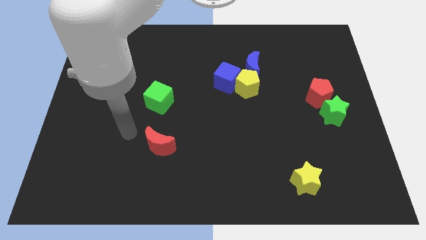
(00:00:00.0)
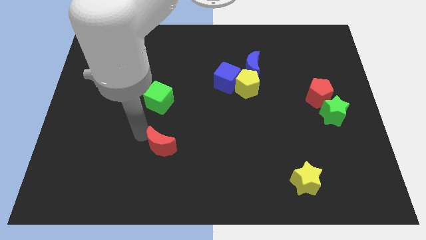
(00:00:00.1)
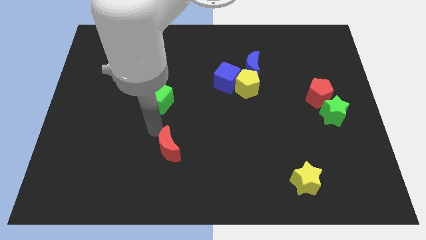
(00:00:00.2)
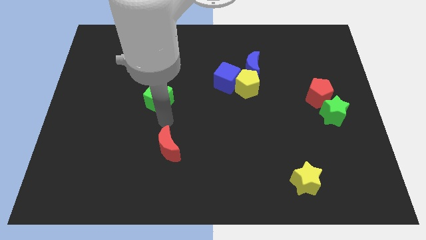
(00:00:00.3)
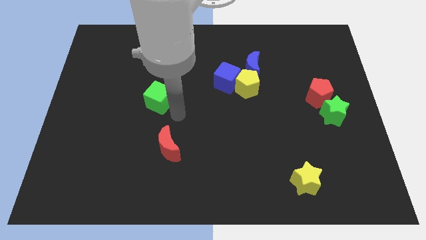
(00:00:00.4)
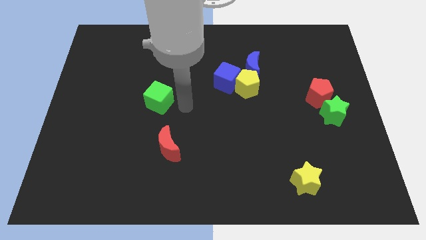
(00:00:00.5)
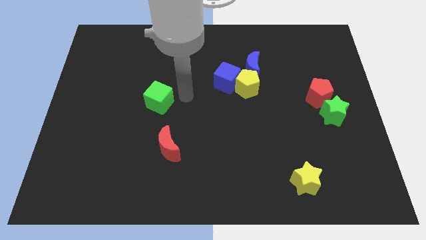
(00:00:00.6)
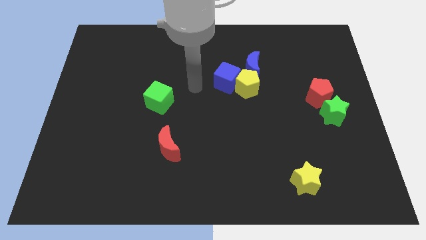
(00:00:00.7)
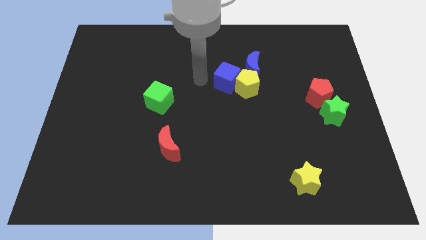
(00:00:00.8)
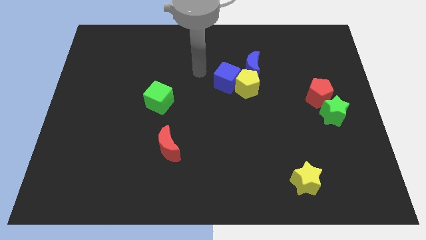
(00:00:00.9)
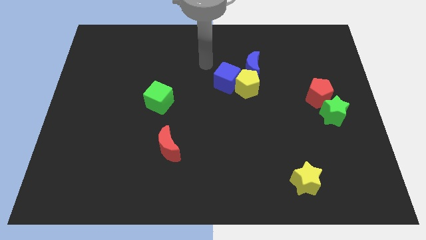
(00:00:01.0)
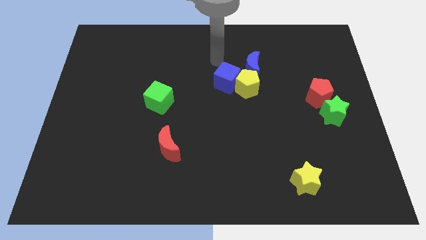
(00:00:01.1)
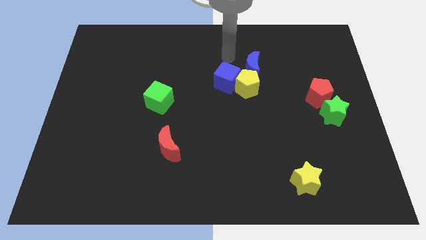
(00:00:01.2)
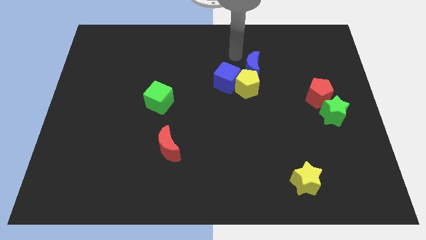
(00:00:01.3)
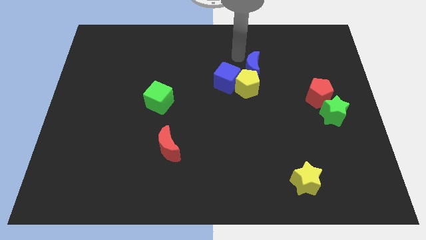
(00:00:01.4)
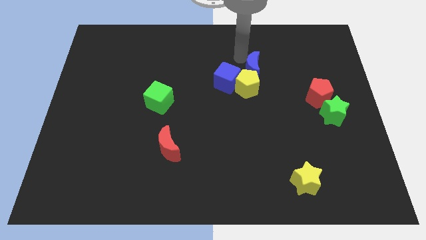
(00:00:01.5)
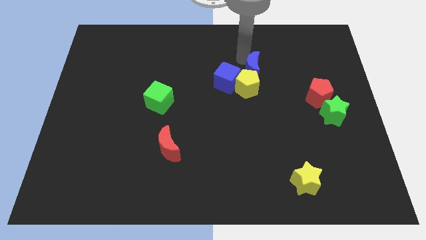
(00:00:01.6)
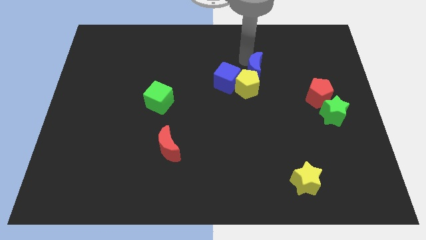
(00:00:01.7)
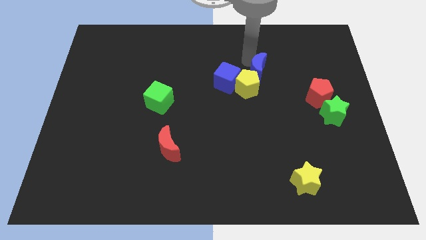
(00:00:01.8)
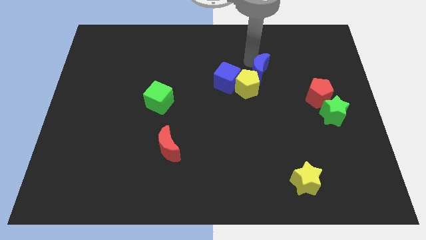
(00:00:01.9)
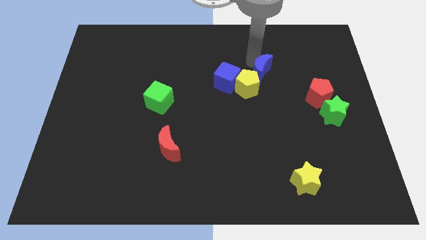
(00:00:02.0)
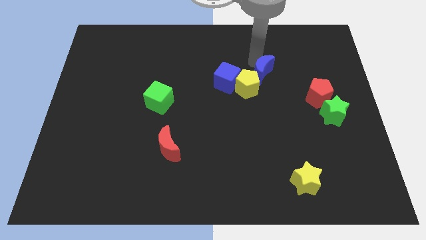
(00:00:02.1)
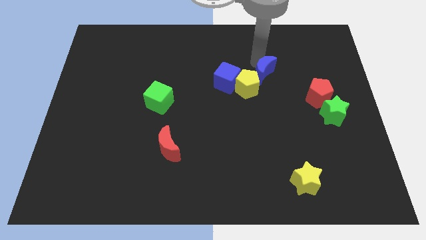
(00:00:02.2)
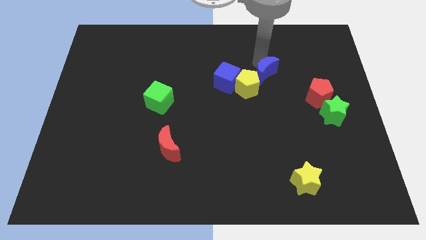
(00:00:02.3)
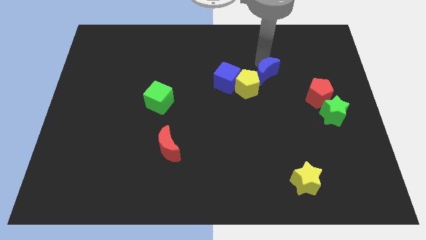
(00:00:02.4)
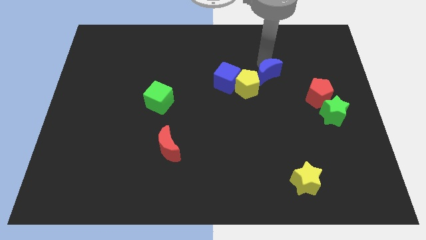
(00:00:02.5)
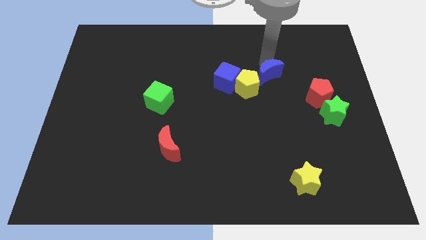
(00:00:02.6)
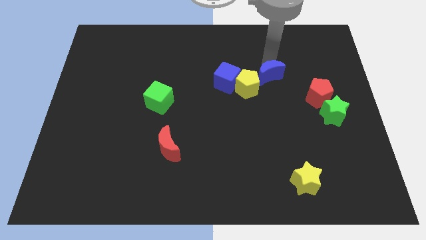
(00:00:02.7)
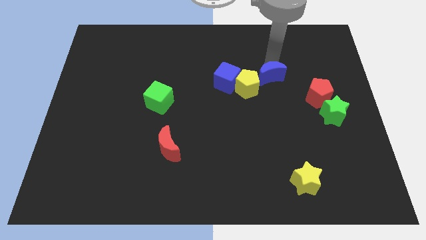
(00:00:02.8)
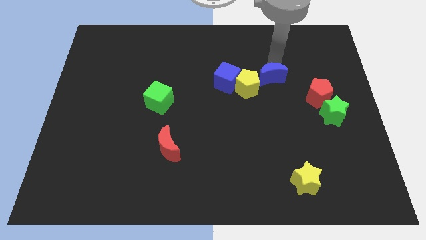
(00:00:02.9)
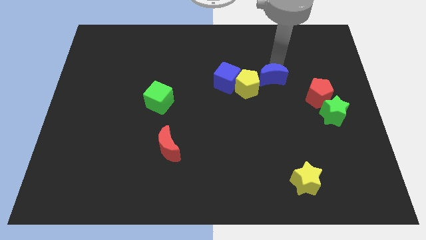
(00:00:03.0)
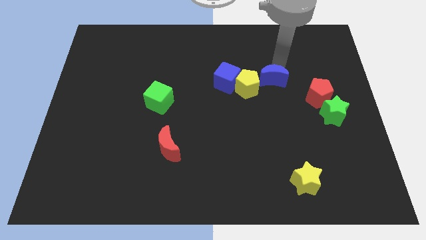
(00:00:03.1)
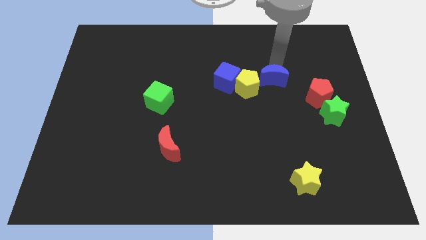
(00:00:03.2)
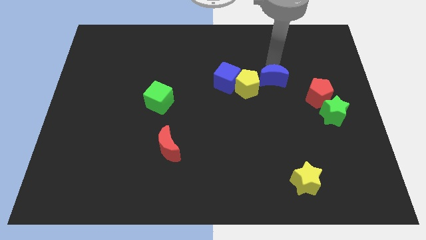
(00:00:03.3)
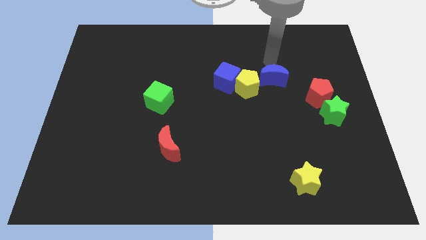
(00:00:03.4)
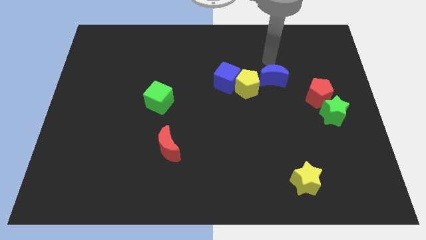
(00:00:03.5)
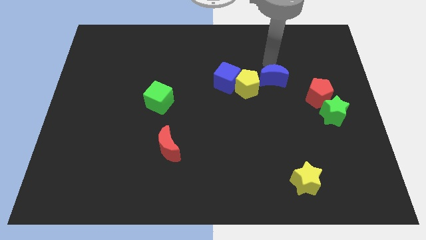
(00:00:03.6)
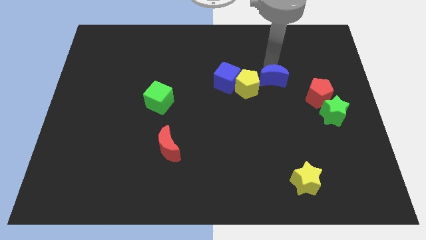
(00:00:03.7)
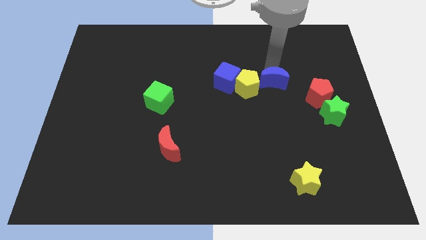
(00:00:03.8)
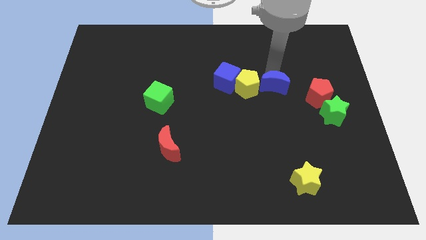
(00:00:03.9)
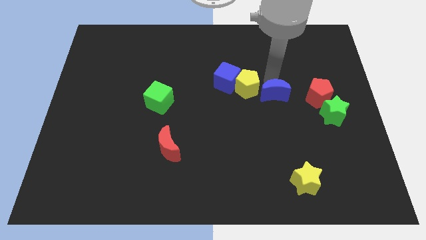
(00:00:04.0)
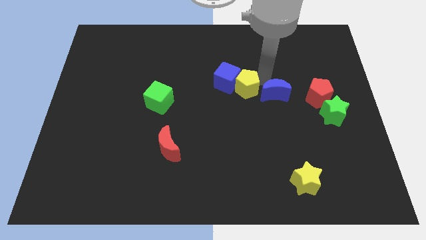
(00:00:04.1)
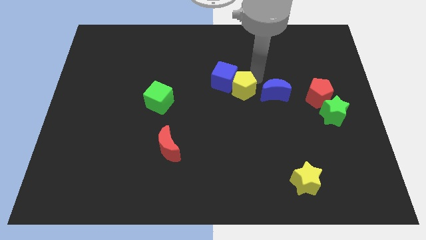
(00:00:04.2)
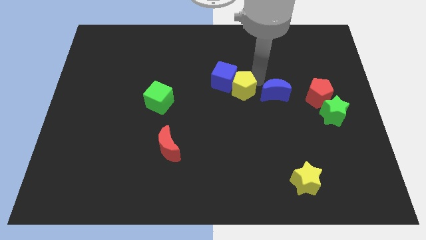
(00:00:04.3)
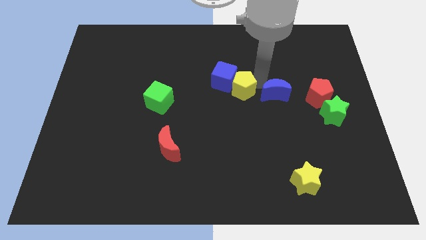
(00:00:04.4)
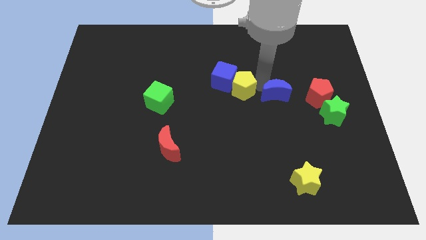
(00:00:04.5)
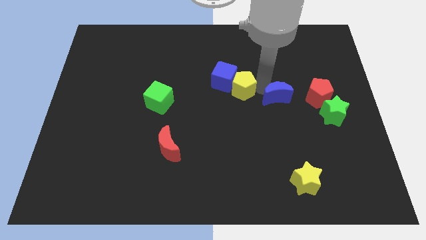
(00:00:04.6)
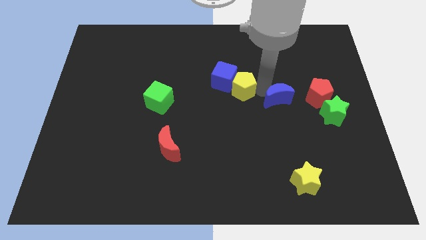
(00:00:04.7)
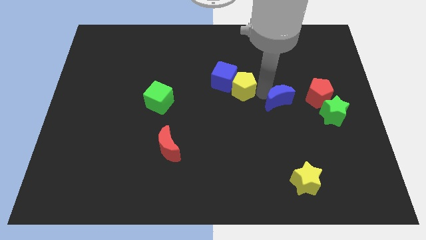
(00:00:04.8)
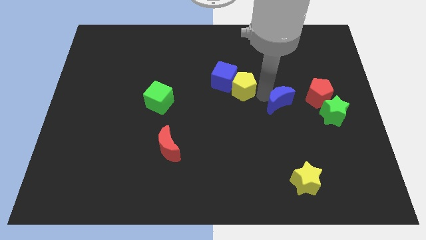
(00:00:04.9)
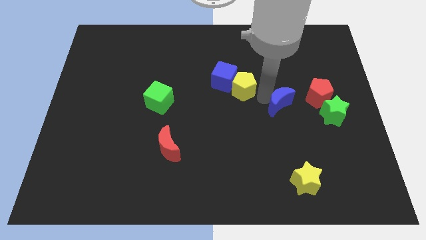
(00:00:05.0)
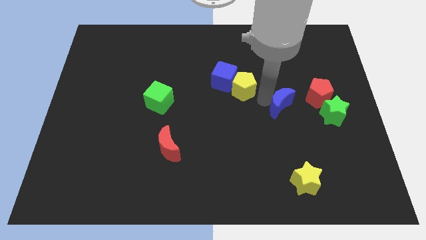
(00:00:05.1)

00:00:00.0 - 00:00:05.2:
push the blue moon diagonally down and to the left of the red pentagon

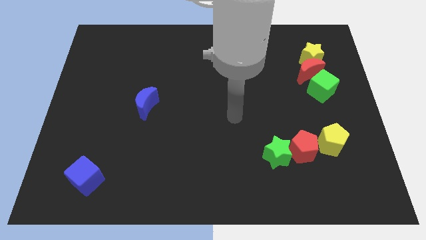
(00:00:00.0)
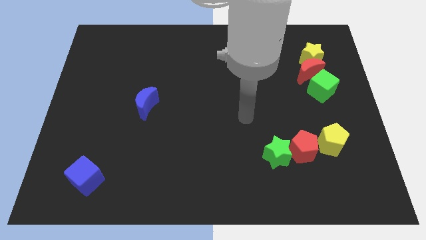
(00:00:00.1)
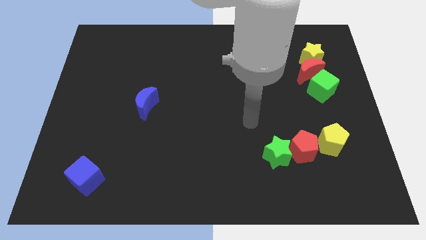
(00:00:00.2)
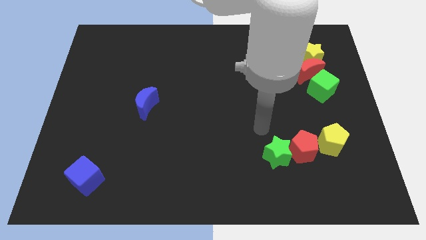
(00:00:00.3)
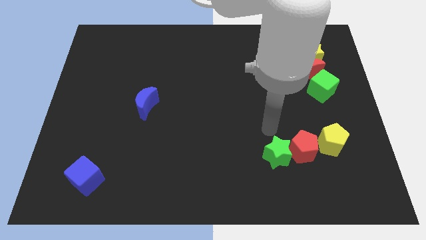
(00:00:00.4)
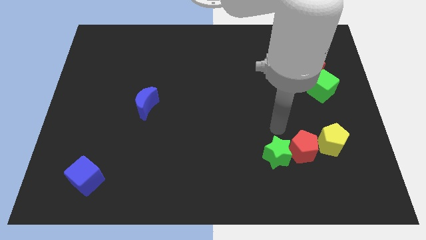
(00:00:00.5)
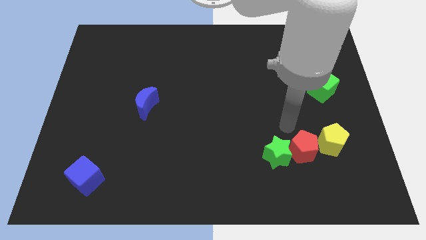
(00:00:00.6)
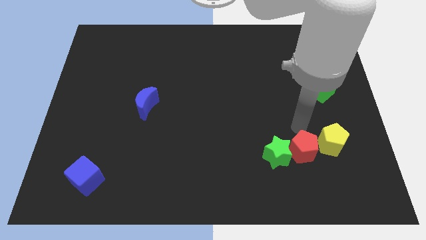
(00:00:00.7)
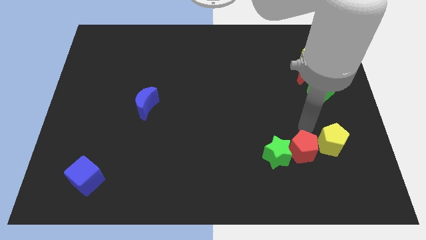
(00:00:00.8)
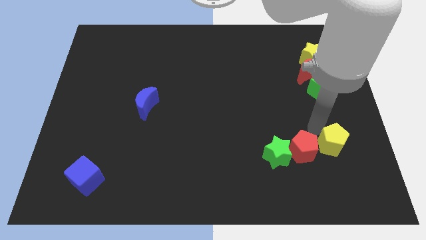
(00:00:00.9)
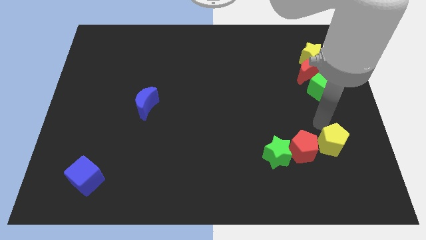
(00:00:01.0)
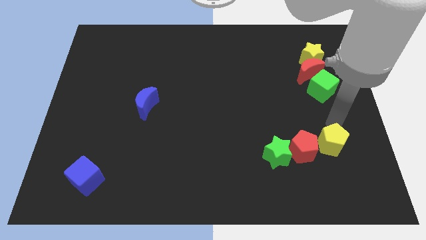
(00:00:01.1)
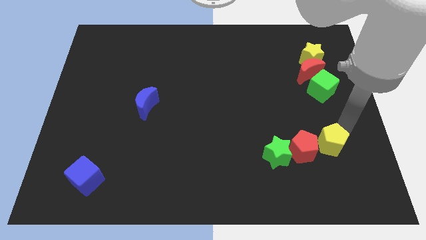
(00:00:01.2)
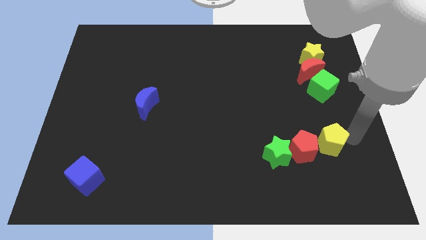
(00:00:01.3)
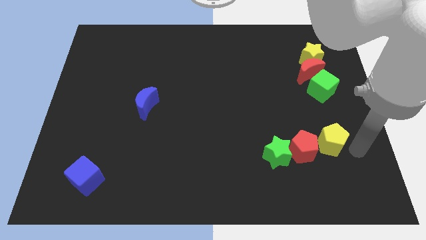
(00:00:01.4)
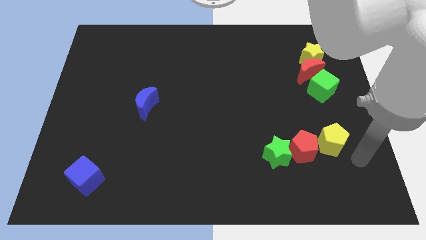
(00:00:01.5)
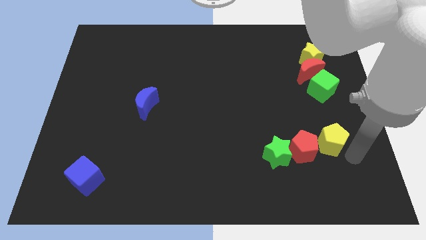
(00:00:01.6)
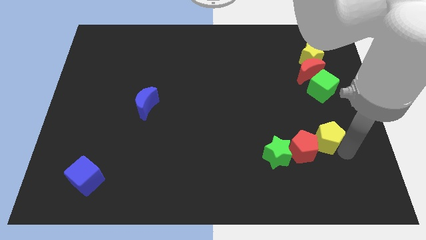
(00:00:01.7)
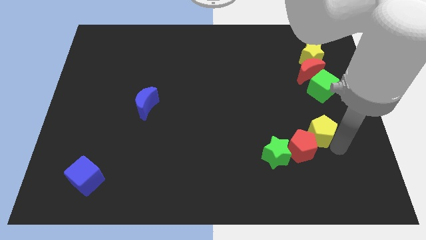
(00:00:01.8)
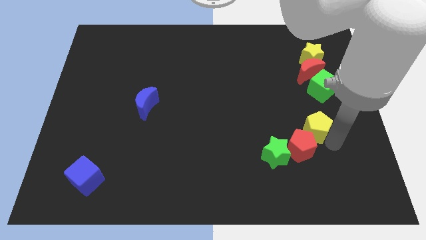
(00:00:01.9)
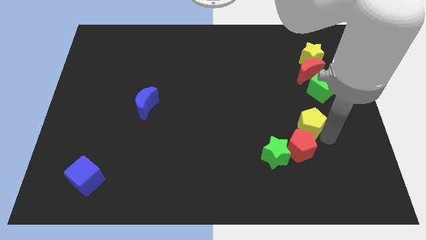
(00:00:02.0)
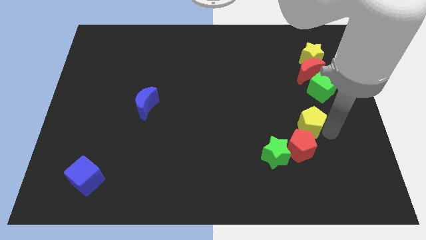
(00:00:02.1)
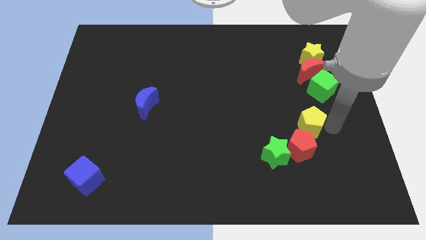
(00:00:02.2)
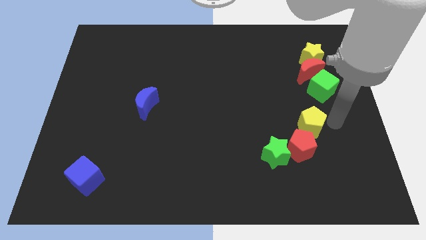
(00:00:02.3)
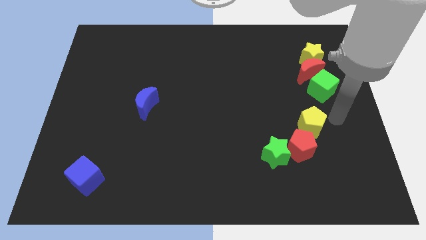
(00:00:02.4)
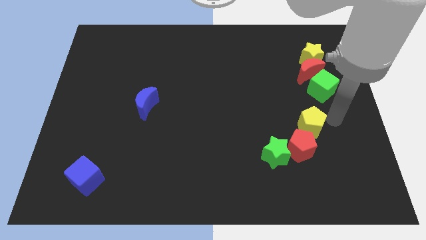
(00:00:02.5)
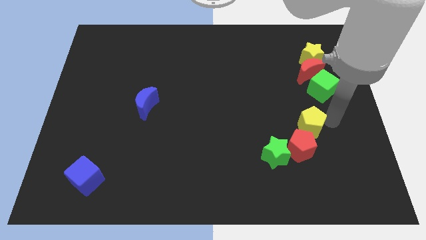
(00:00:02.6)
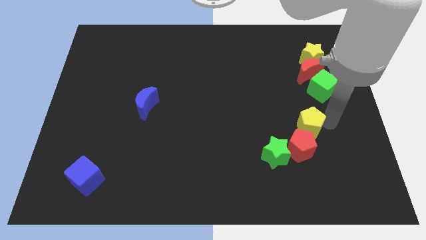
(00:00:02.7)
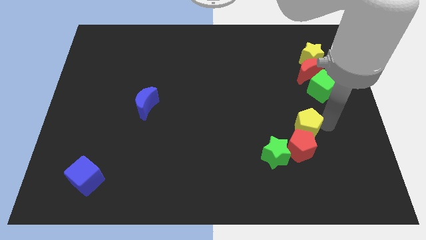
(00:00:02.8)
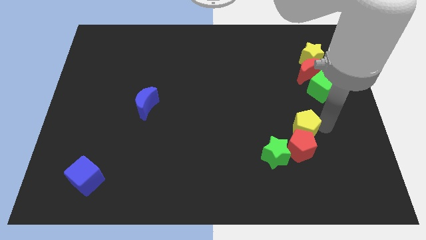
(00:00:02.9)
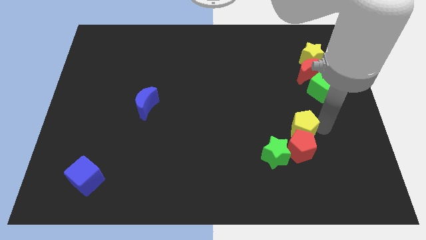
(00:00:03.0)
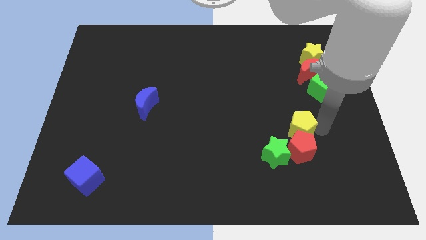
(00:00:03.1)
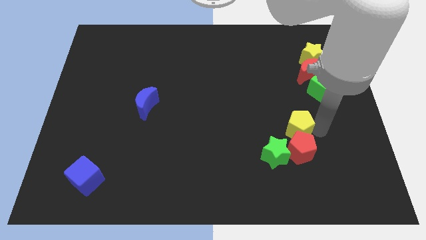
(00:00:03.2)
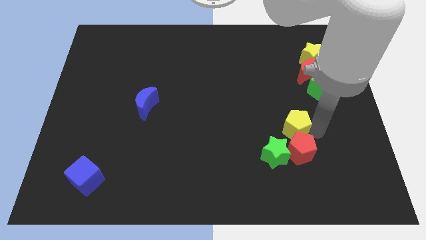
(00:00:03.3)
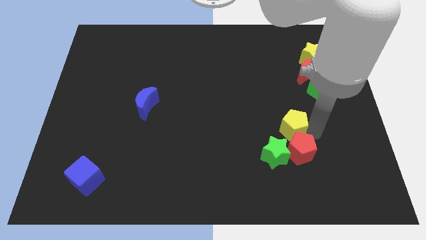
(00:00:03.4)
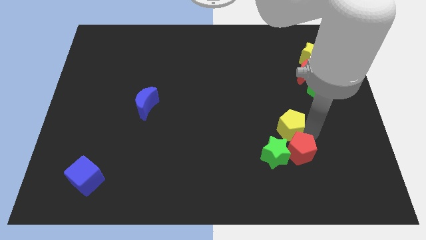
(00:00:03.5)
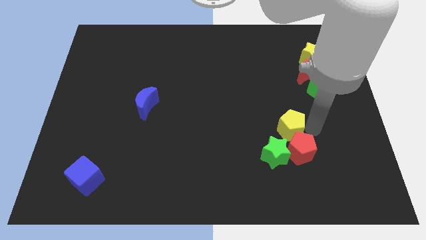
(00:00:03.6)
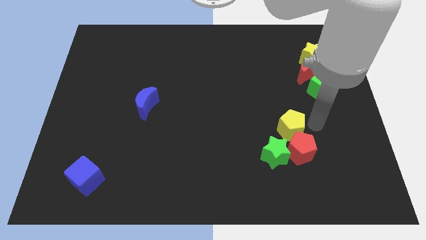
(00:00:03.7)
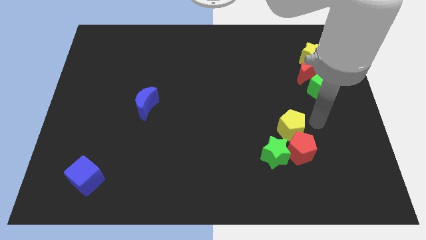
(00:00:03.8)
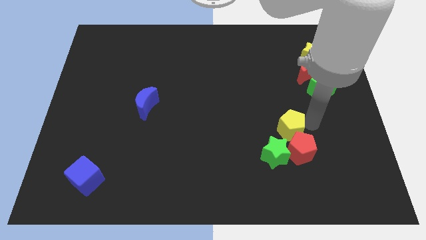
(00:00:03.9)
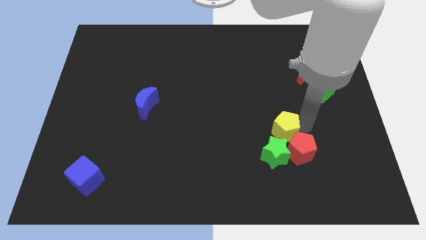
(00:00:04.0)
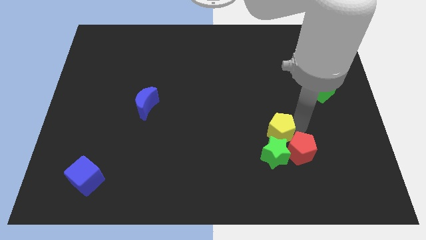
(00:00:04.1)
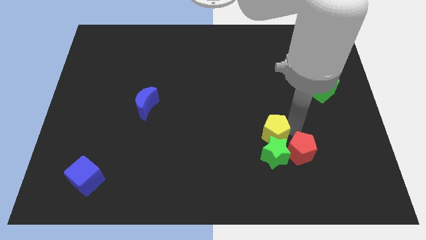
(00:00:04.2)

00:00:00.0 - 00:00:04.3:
push the yellow pentagon diagonally up and to the left of the green star
